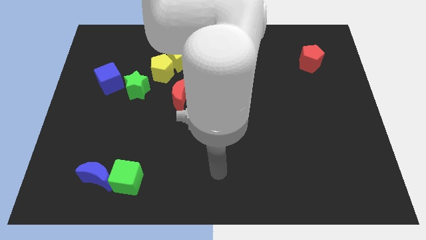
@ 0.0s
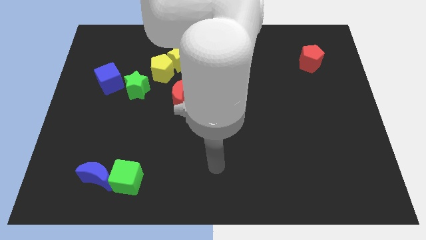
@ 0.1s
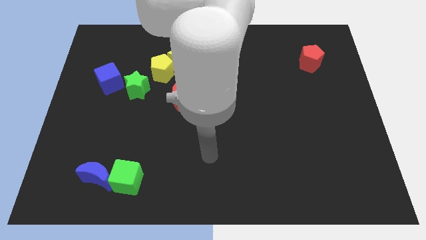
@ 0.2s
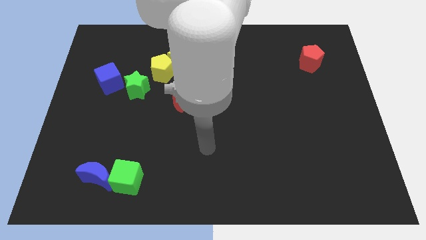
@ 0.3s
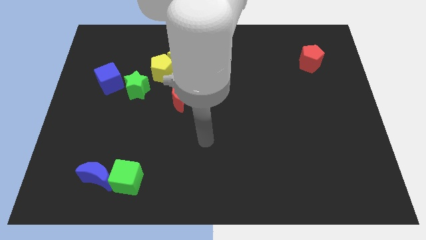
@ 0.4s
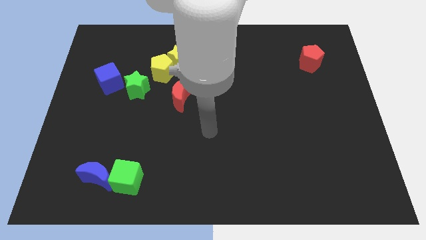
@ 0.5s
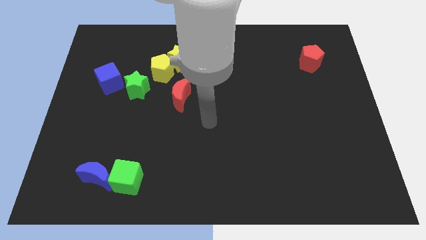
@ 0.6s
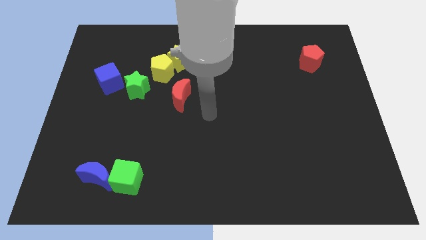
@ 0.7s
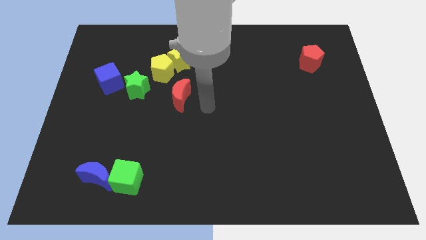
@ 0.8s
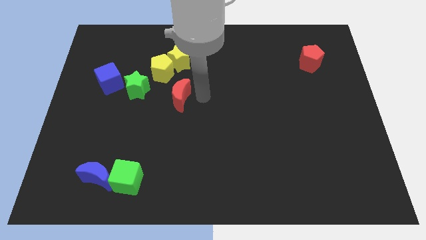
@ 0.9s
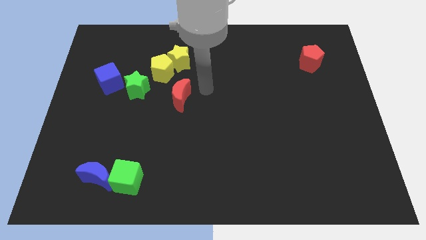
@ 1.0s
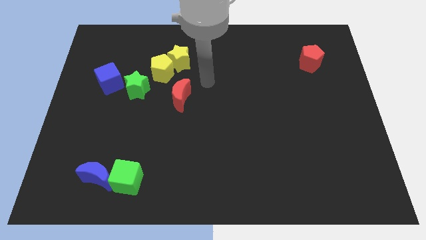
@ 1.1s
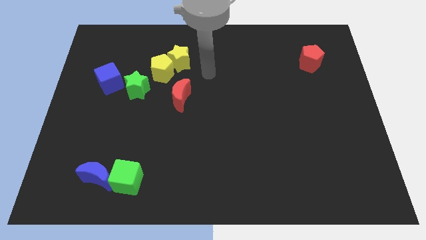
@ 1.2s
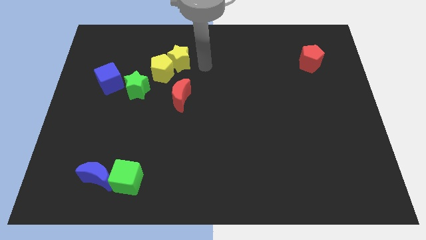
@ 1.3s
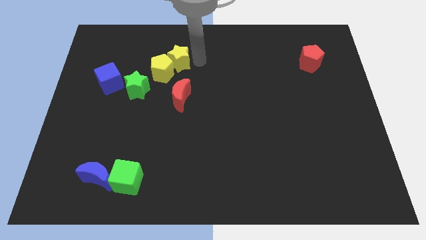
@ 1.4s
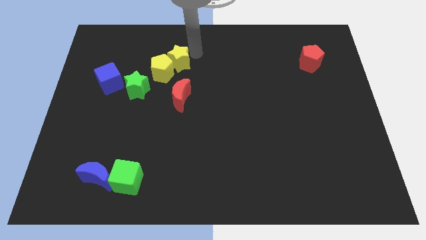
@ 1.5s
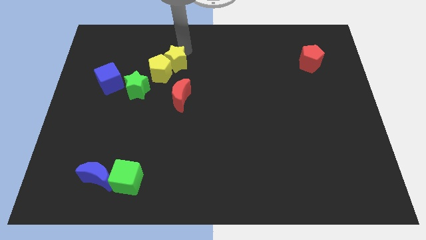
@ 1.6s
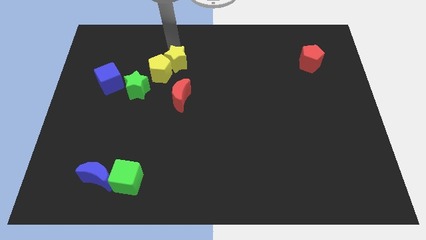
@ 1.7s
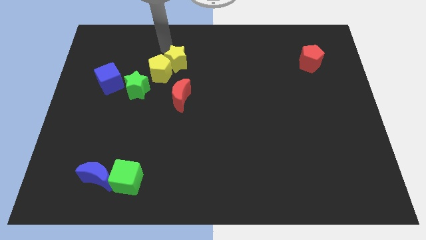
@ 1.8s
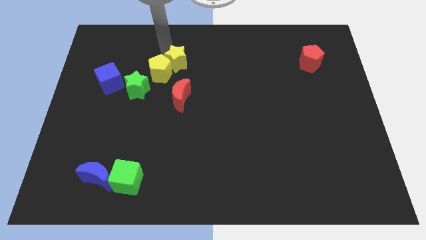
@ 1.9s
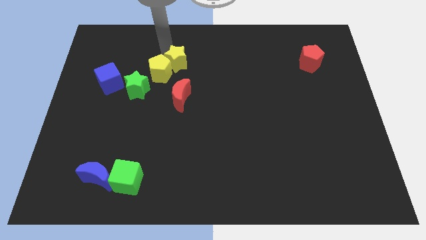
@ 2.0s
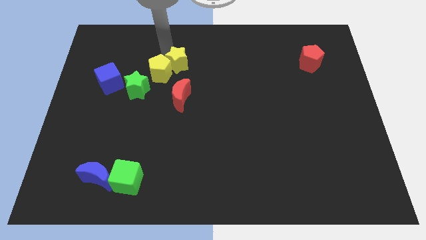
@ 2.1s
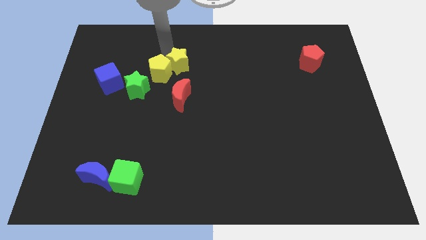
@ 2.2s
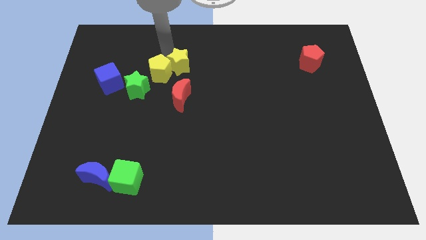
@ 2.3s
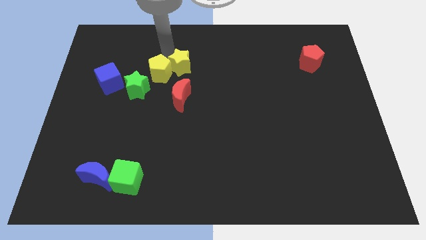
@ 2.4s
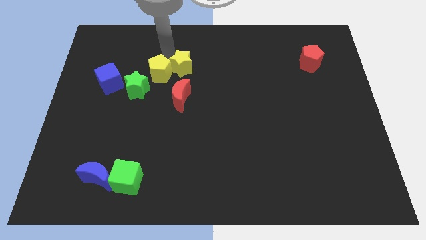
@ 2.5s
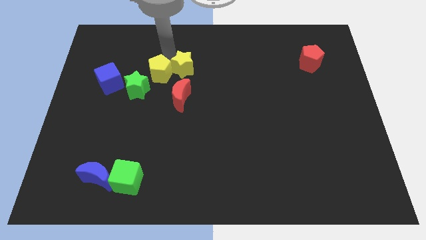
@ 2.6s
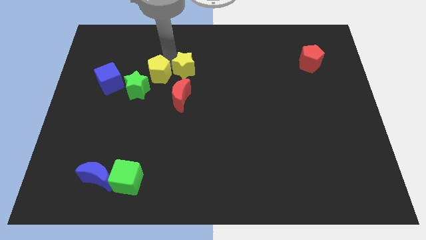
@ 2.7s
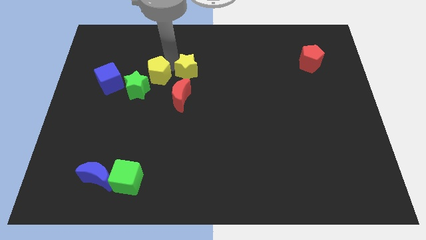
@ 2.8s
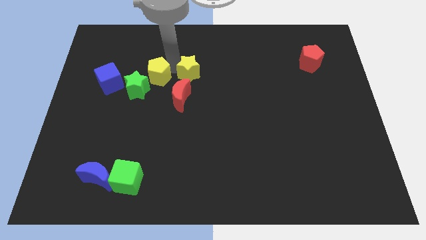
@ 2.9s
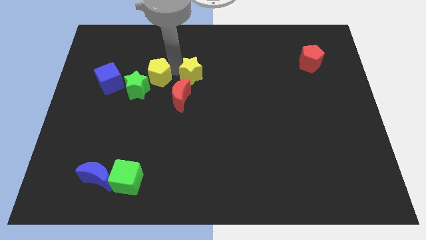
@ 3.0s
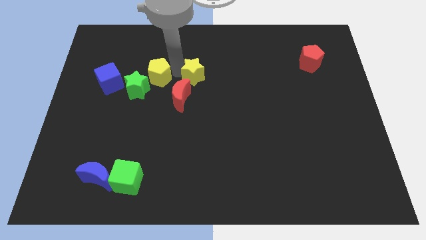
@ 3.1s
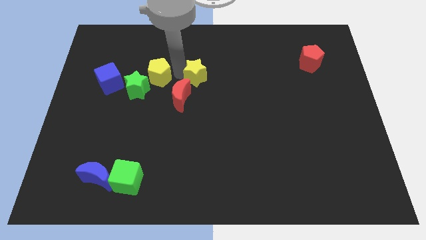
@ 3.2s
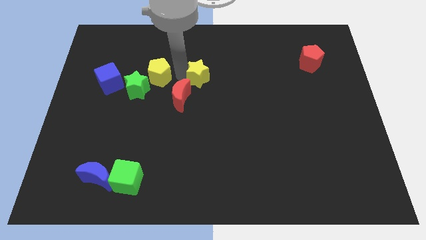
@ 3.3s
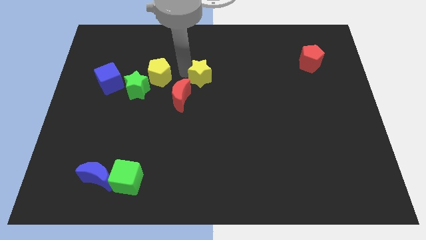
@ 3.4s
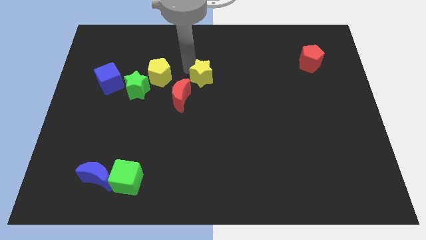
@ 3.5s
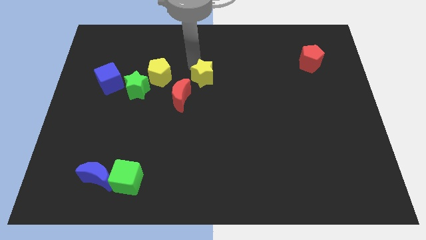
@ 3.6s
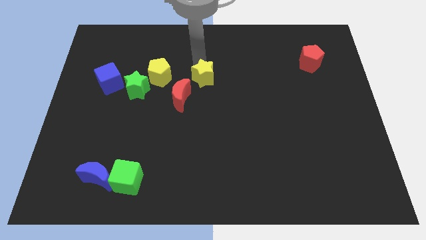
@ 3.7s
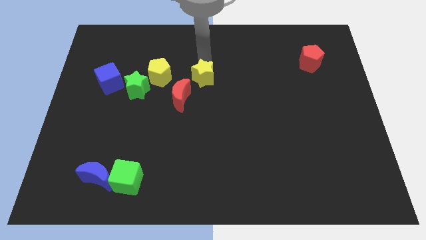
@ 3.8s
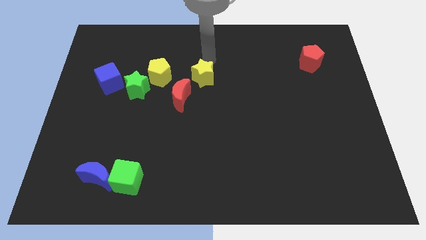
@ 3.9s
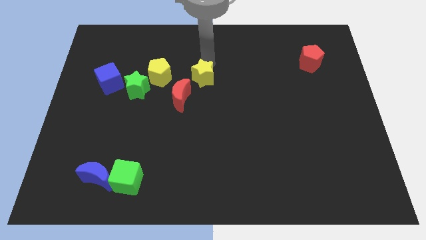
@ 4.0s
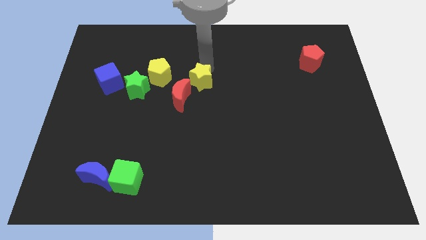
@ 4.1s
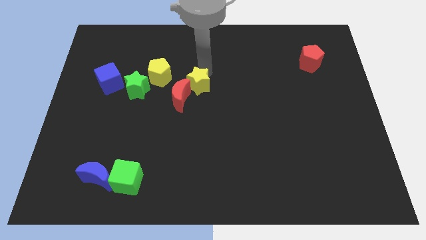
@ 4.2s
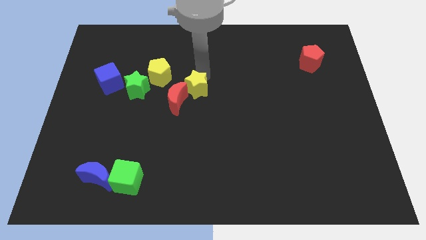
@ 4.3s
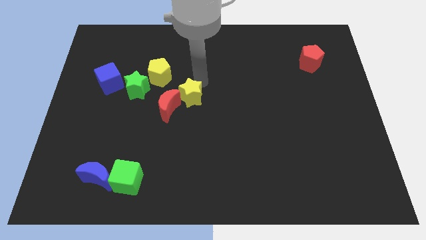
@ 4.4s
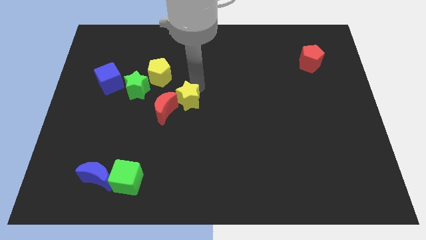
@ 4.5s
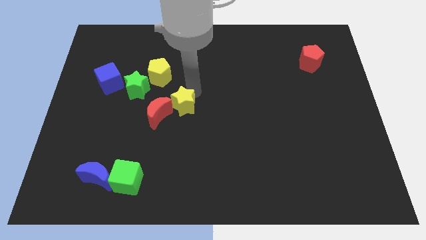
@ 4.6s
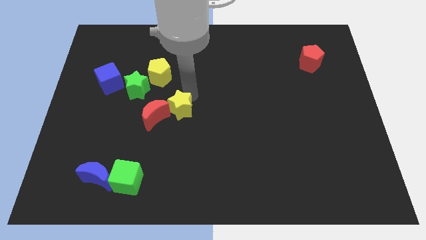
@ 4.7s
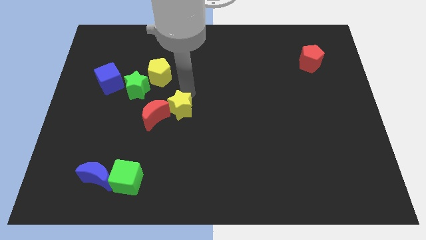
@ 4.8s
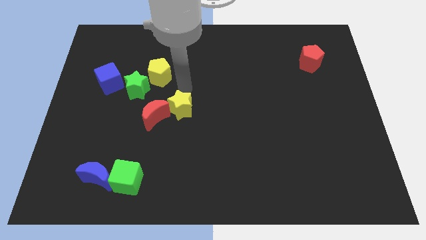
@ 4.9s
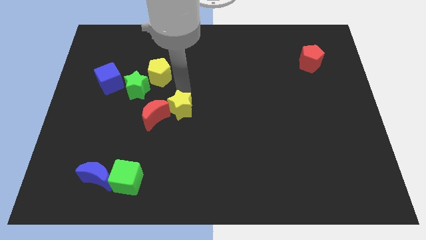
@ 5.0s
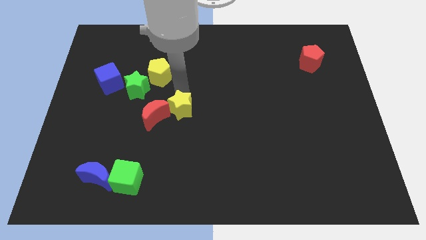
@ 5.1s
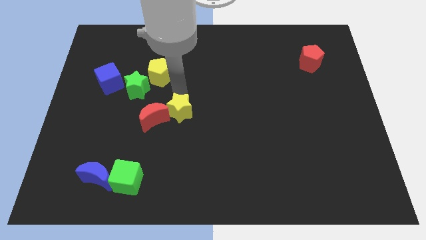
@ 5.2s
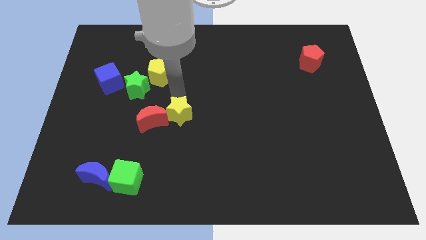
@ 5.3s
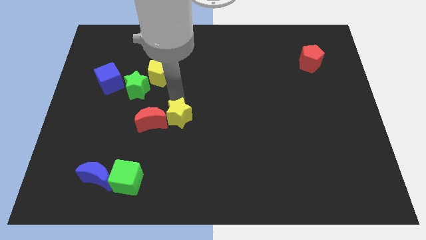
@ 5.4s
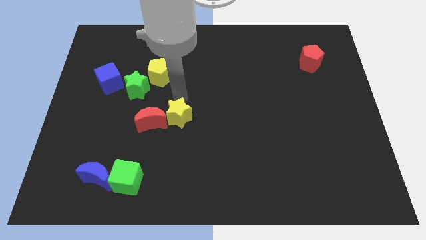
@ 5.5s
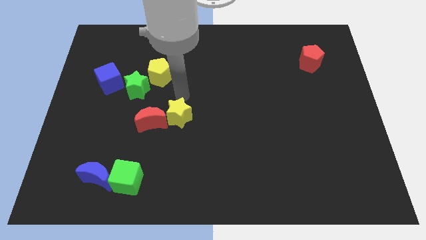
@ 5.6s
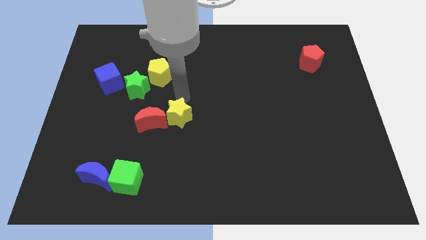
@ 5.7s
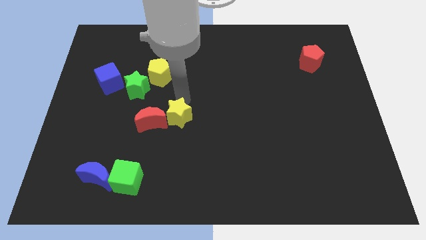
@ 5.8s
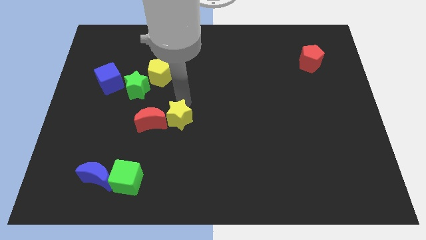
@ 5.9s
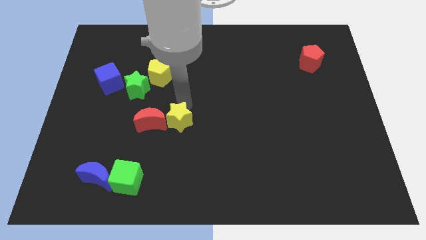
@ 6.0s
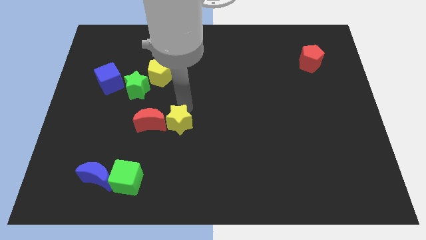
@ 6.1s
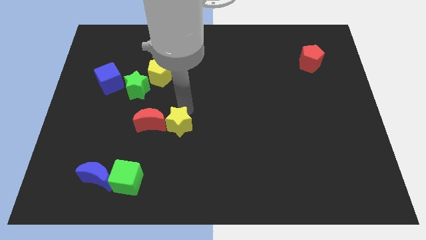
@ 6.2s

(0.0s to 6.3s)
move the yellow star downwards
